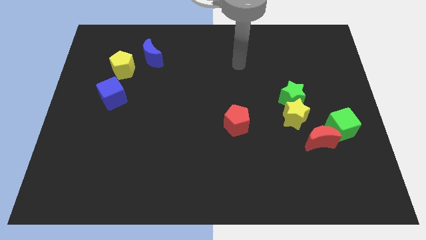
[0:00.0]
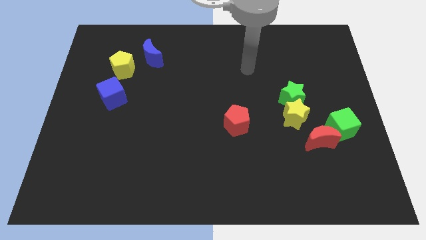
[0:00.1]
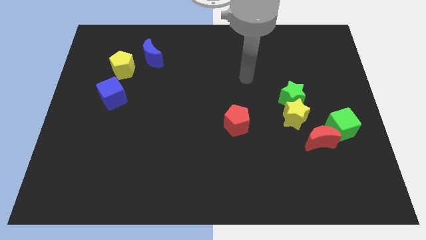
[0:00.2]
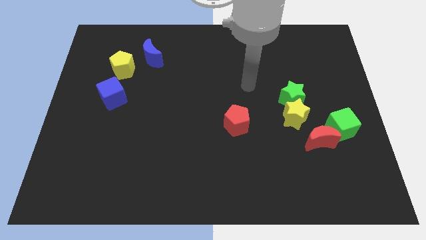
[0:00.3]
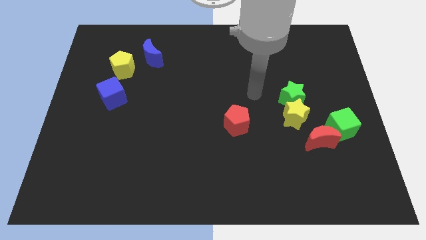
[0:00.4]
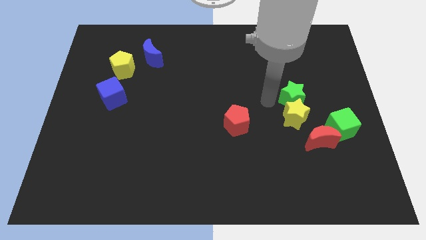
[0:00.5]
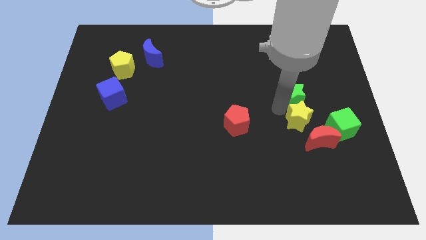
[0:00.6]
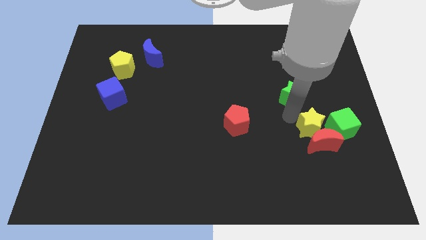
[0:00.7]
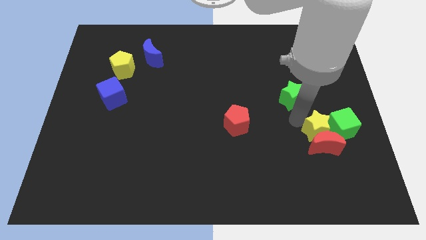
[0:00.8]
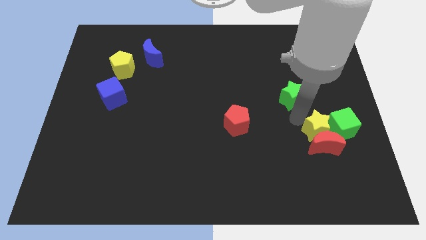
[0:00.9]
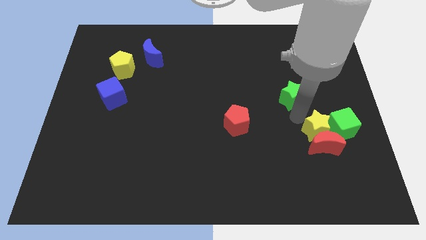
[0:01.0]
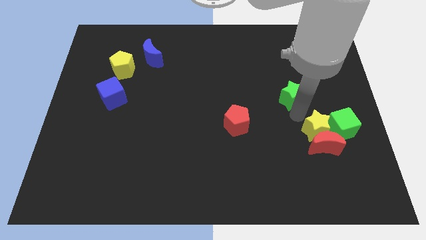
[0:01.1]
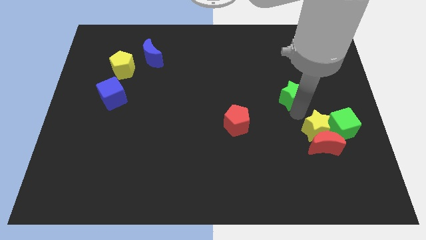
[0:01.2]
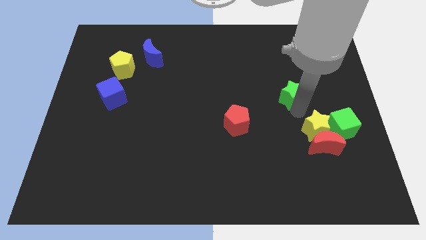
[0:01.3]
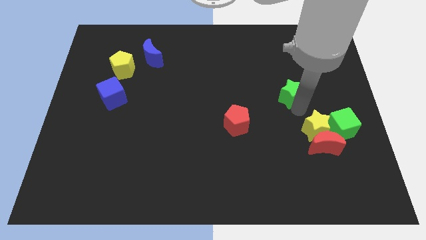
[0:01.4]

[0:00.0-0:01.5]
pull the green star apart from the yellow star

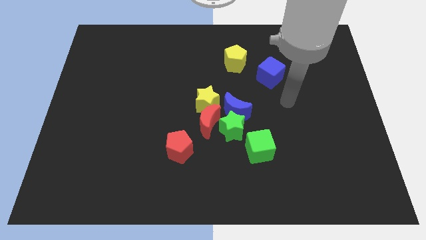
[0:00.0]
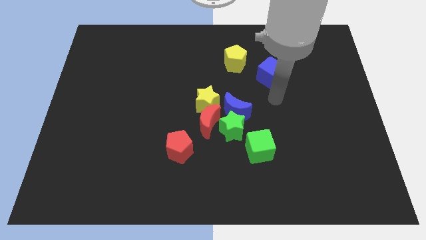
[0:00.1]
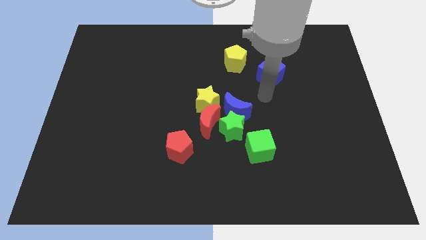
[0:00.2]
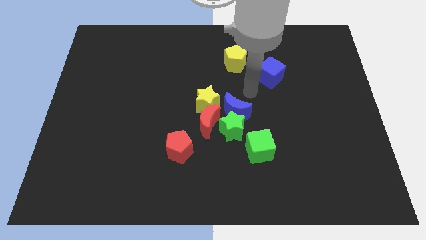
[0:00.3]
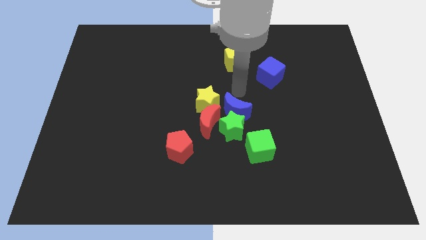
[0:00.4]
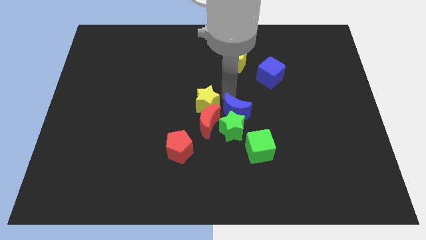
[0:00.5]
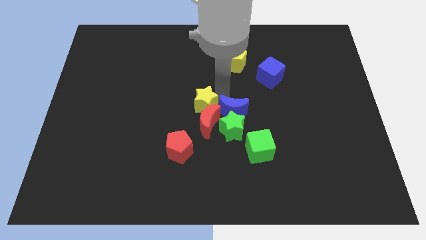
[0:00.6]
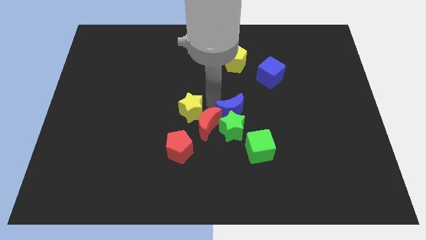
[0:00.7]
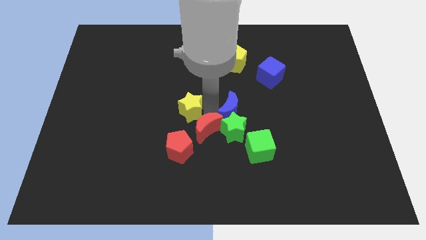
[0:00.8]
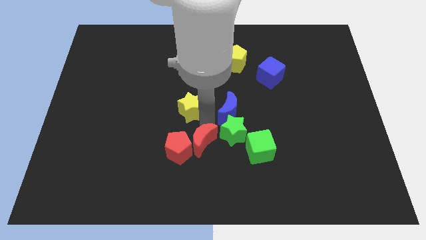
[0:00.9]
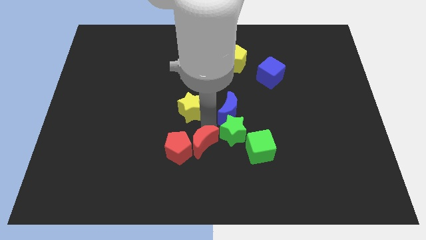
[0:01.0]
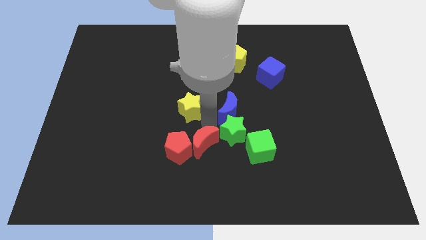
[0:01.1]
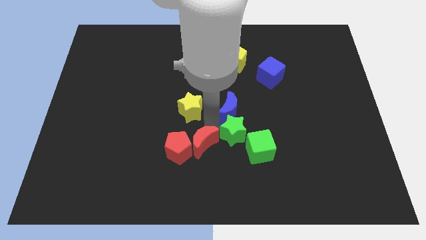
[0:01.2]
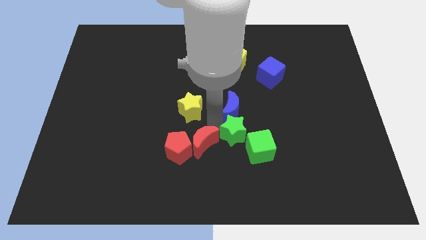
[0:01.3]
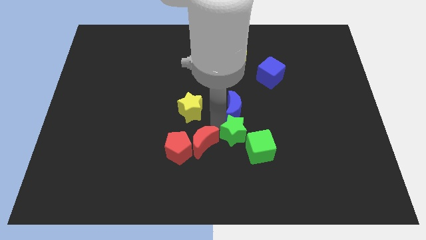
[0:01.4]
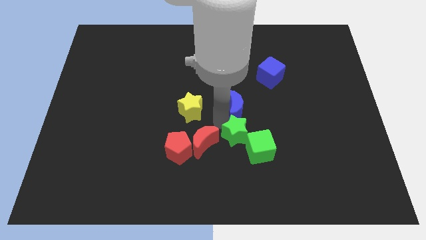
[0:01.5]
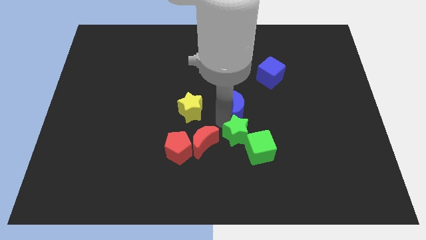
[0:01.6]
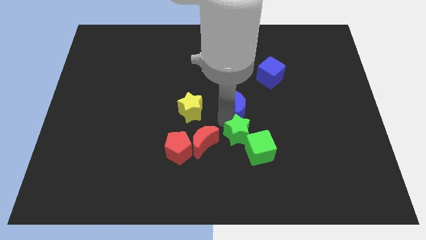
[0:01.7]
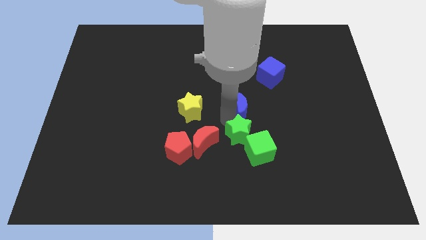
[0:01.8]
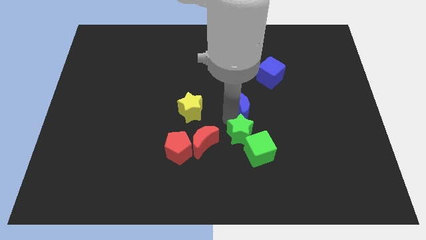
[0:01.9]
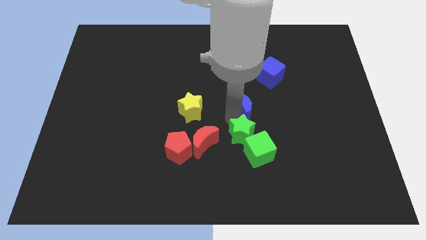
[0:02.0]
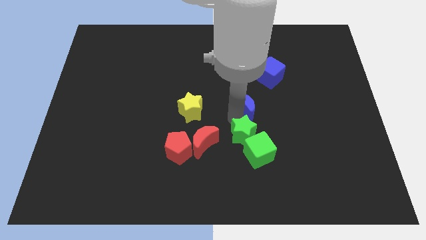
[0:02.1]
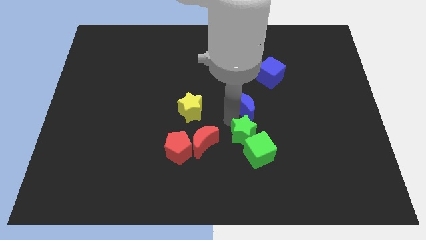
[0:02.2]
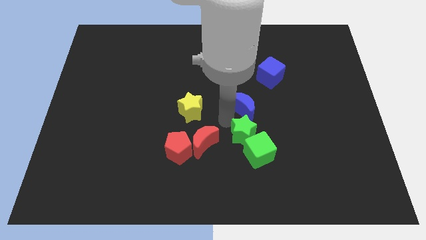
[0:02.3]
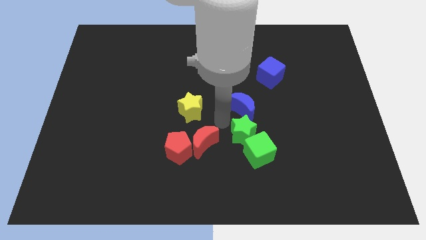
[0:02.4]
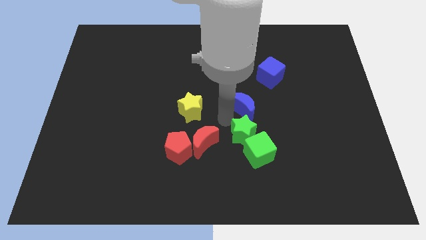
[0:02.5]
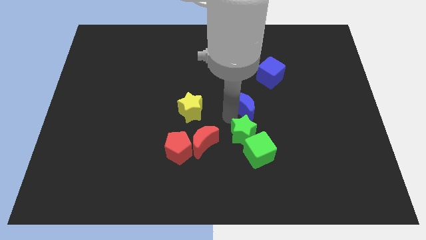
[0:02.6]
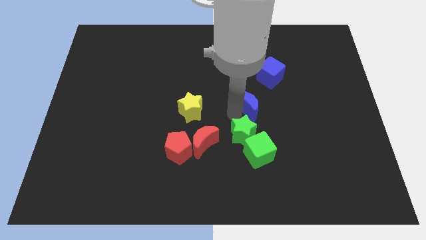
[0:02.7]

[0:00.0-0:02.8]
move the blue moon away from the group of blocks

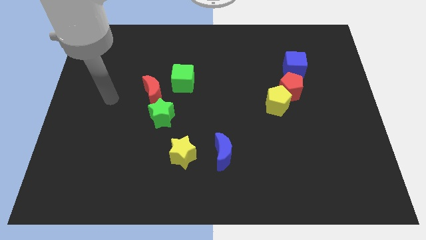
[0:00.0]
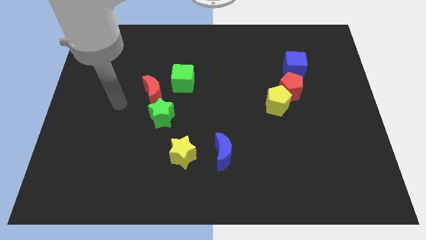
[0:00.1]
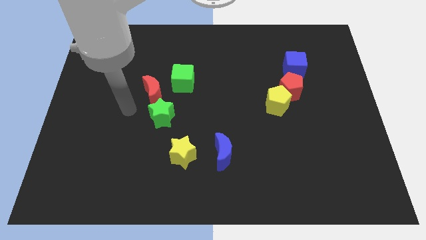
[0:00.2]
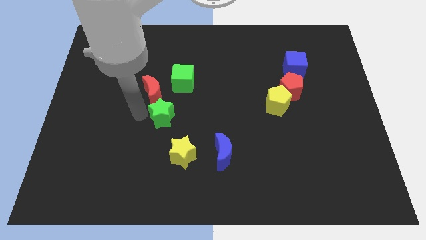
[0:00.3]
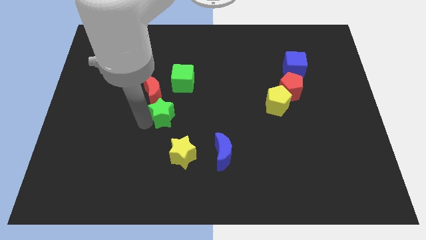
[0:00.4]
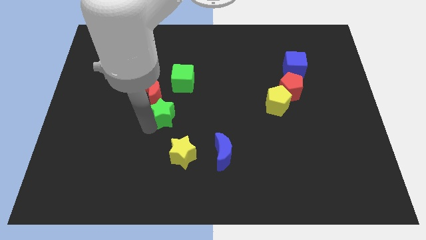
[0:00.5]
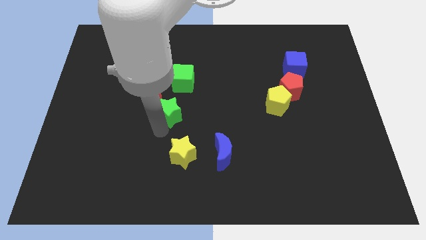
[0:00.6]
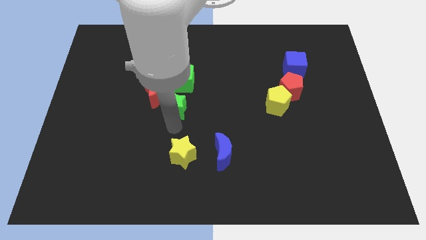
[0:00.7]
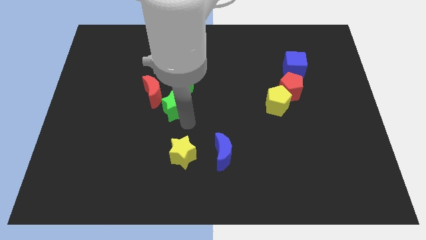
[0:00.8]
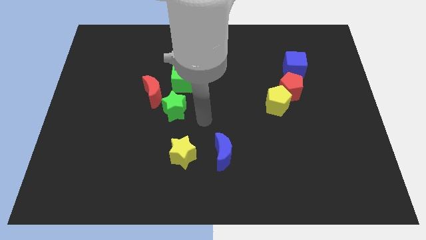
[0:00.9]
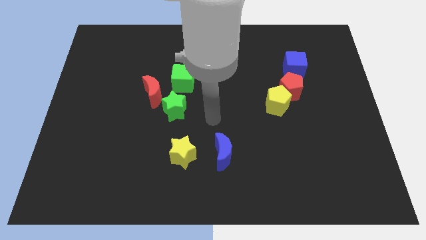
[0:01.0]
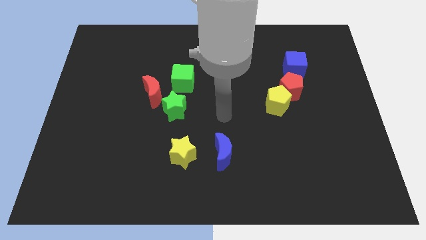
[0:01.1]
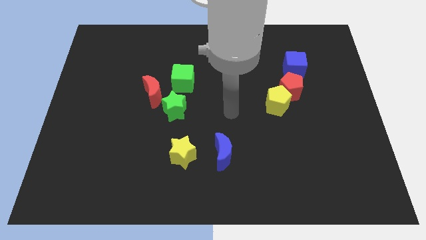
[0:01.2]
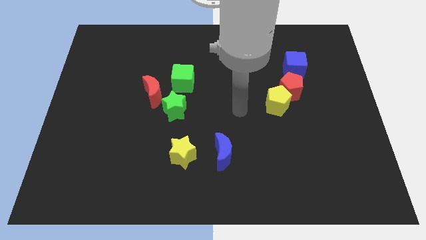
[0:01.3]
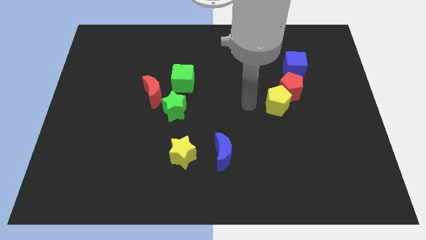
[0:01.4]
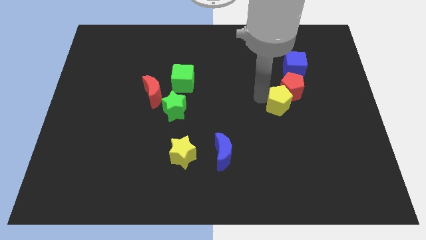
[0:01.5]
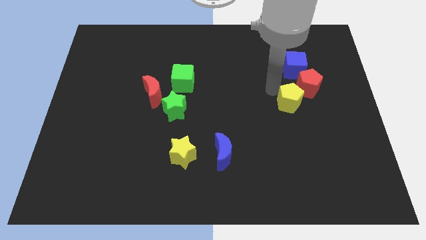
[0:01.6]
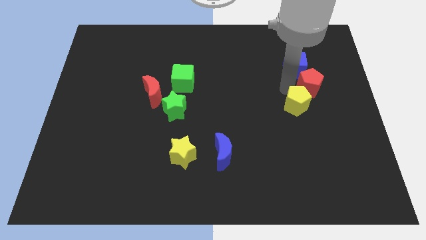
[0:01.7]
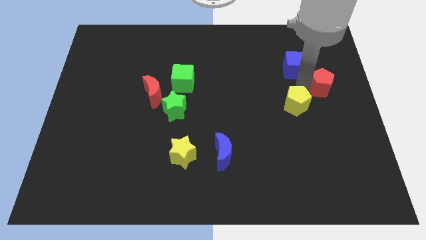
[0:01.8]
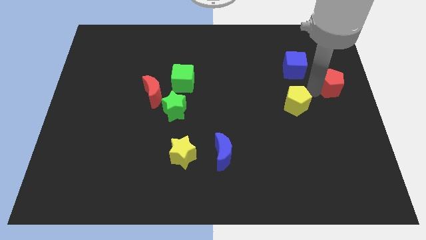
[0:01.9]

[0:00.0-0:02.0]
move the yellow pentagon away from the red pentagon

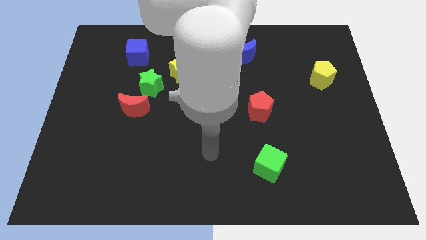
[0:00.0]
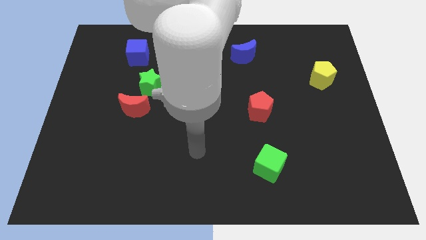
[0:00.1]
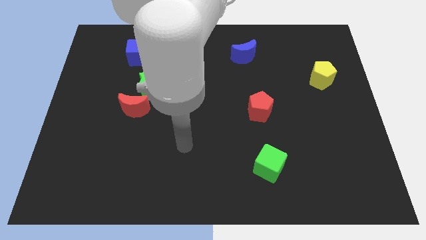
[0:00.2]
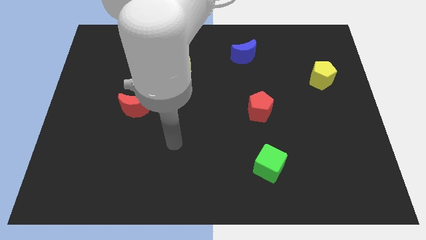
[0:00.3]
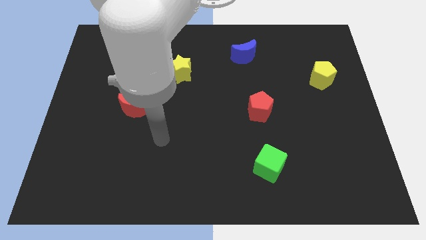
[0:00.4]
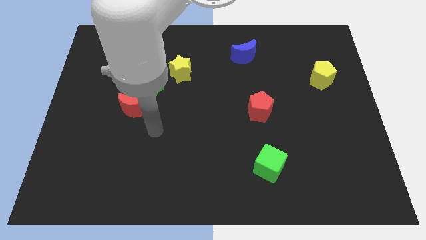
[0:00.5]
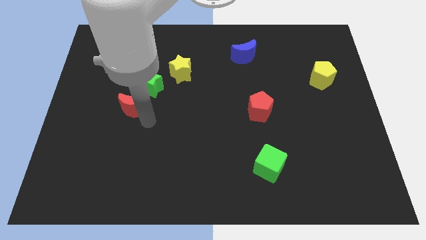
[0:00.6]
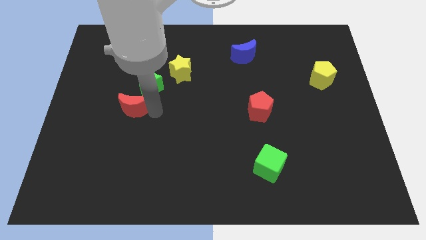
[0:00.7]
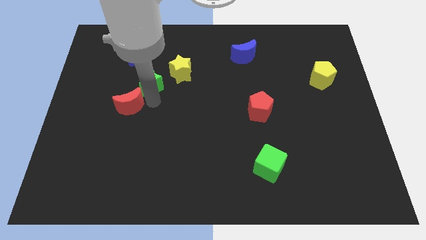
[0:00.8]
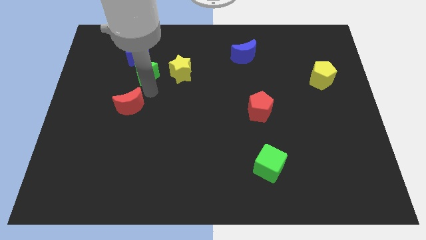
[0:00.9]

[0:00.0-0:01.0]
move the red moon away from the green star

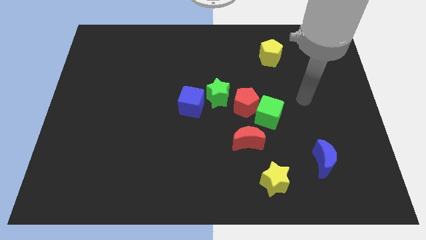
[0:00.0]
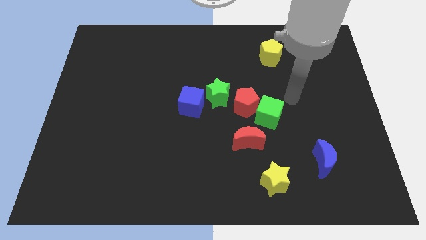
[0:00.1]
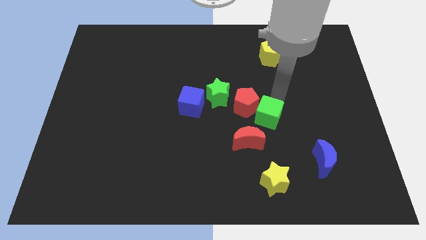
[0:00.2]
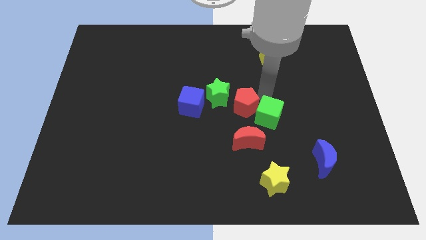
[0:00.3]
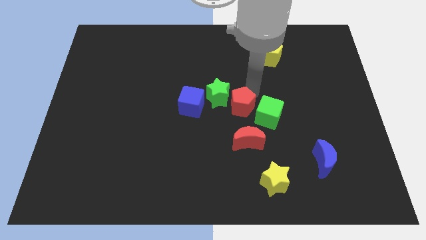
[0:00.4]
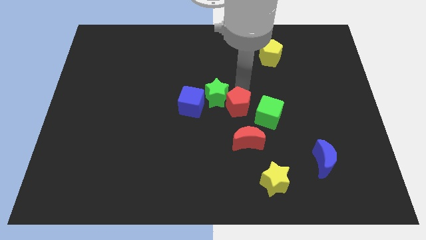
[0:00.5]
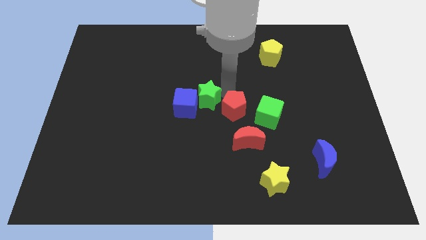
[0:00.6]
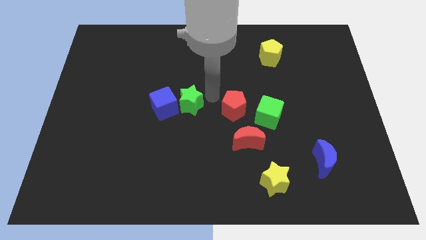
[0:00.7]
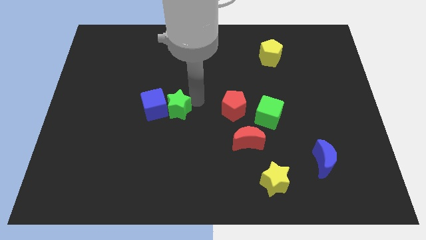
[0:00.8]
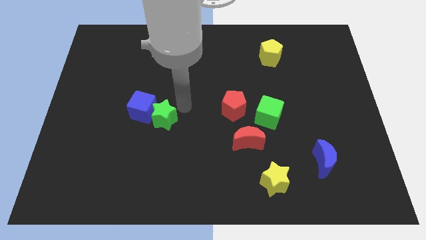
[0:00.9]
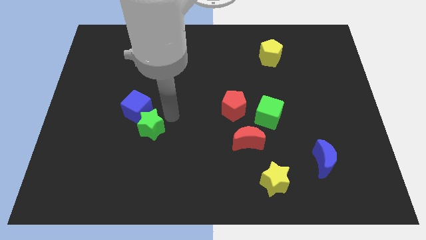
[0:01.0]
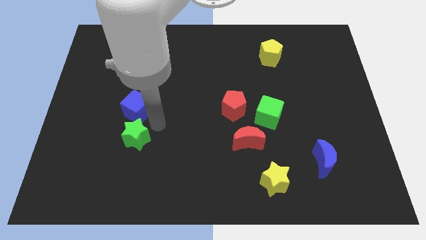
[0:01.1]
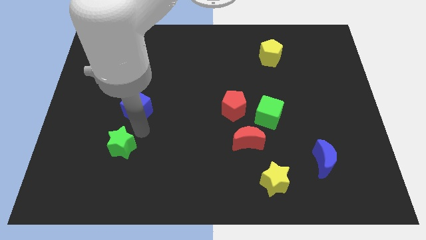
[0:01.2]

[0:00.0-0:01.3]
pull the blue cube apart from the green star

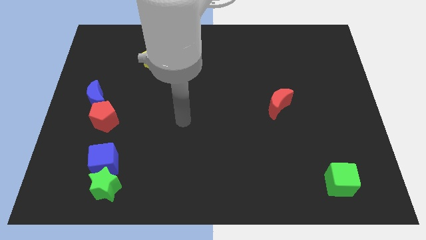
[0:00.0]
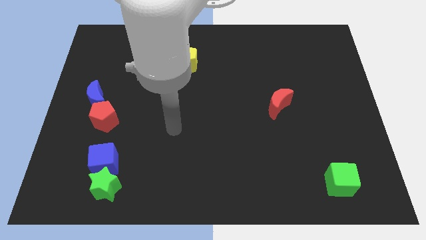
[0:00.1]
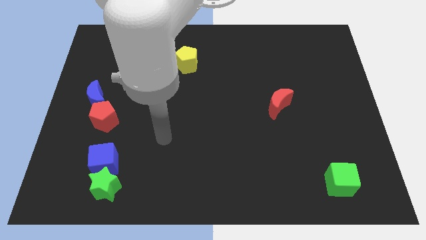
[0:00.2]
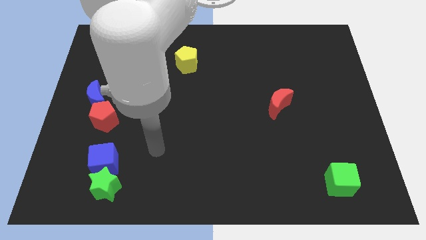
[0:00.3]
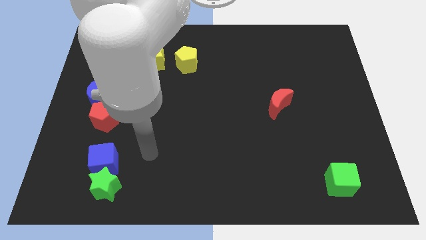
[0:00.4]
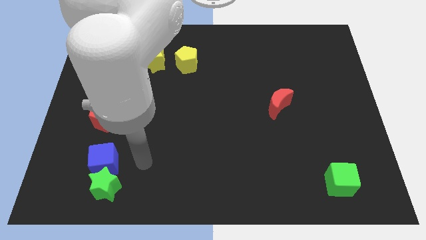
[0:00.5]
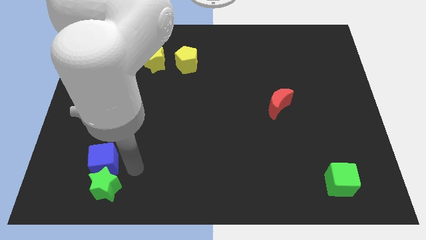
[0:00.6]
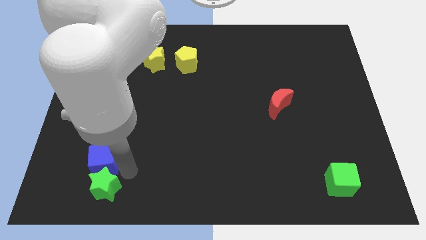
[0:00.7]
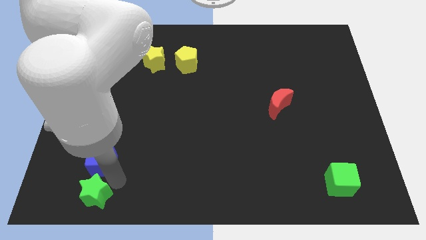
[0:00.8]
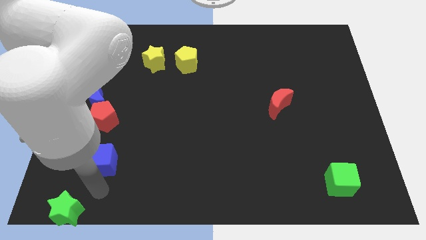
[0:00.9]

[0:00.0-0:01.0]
separate the blue cube from the green star
